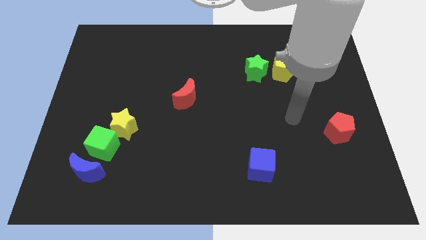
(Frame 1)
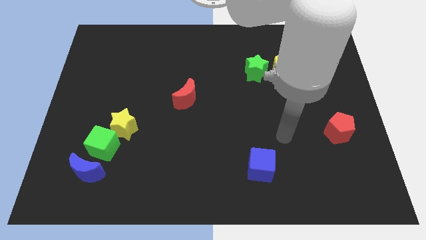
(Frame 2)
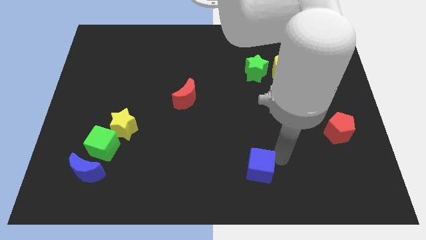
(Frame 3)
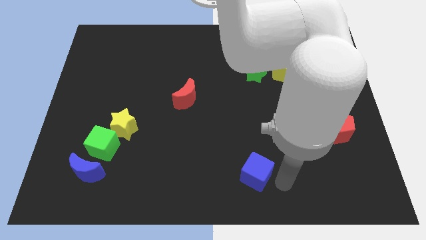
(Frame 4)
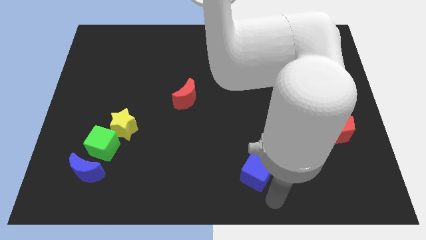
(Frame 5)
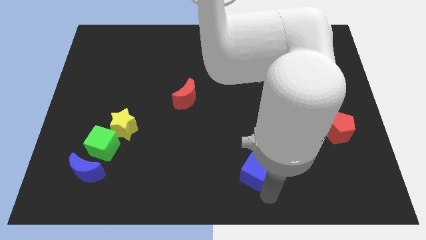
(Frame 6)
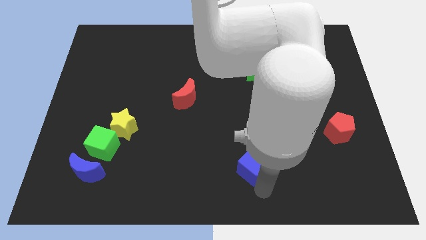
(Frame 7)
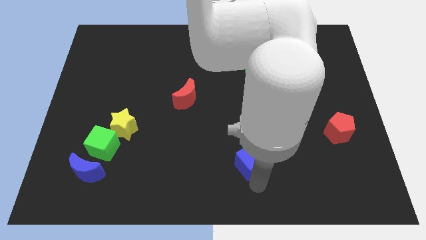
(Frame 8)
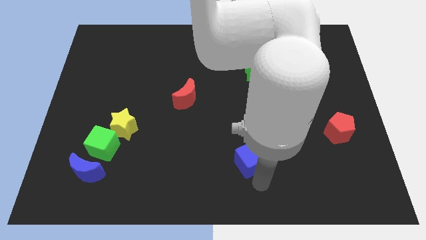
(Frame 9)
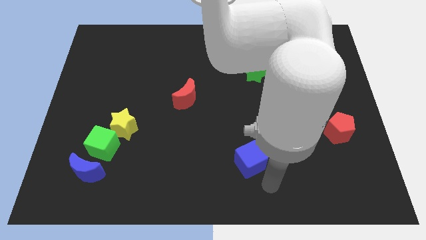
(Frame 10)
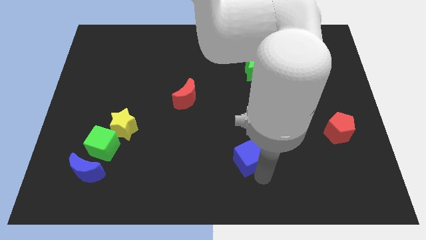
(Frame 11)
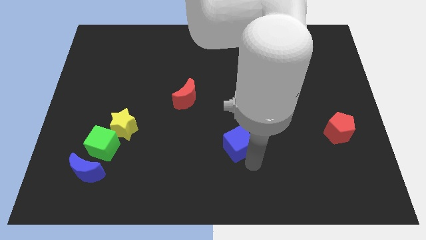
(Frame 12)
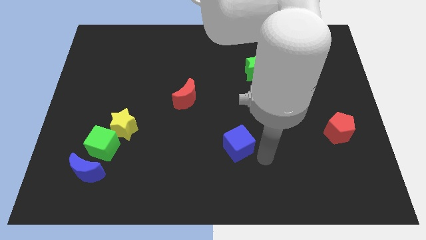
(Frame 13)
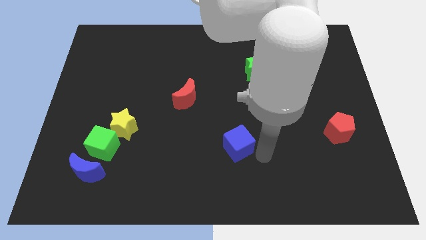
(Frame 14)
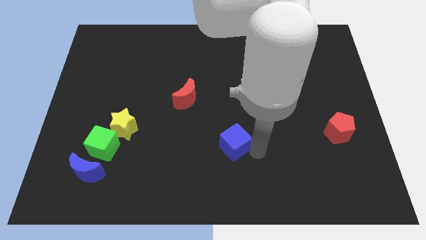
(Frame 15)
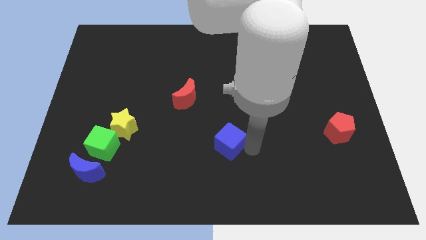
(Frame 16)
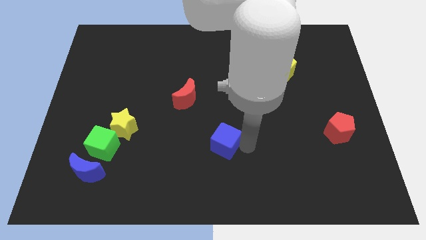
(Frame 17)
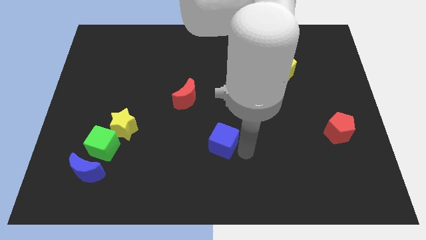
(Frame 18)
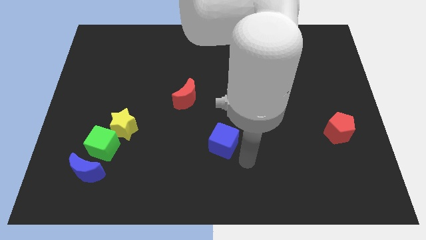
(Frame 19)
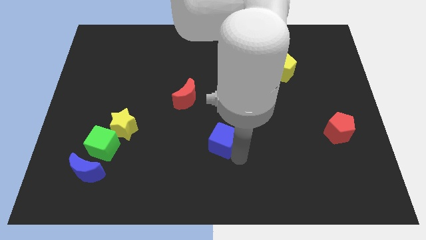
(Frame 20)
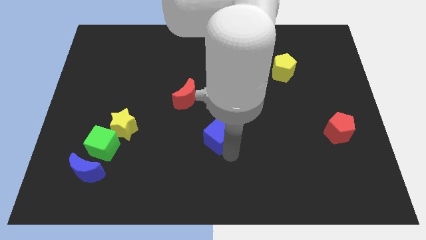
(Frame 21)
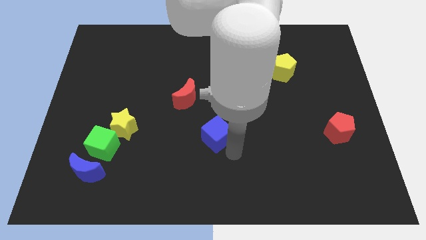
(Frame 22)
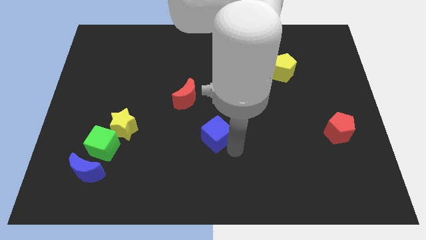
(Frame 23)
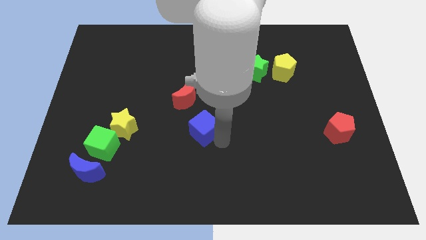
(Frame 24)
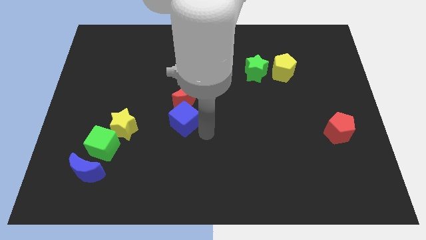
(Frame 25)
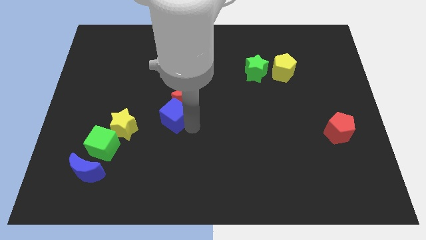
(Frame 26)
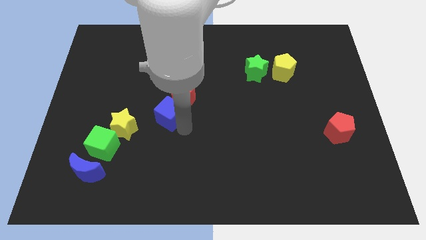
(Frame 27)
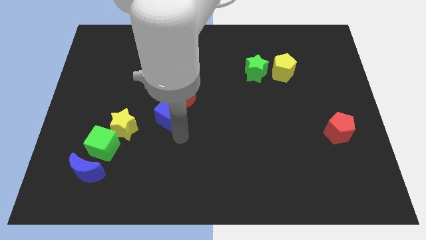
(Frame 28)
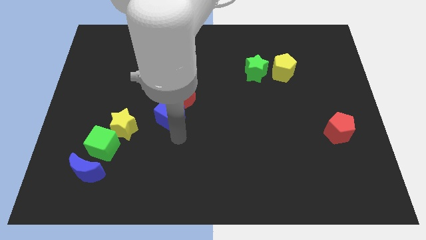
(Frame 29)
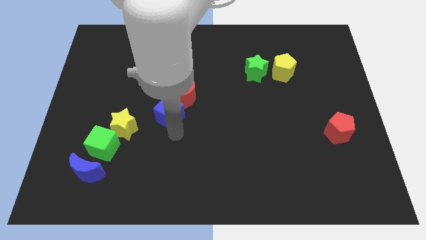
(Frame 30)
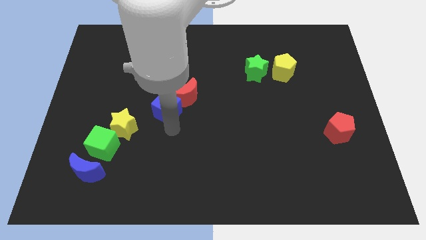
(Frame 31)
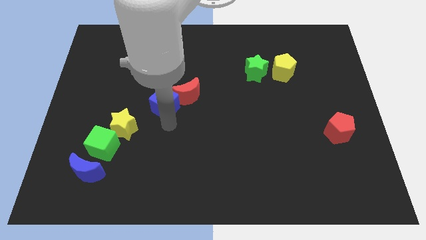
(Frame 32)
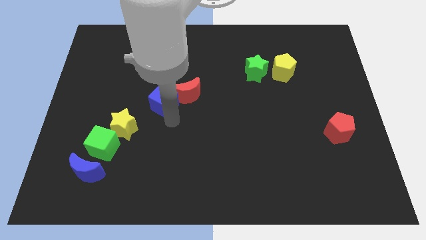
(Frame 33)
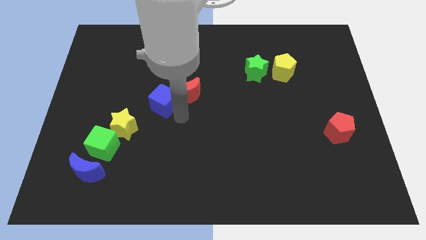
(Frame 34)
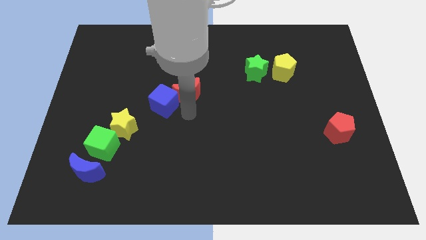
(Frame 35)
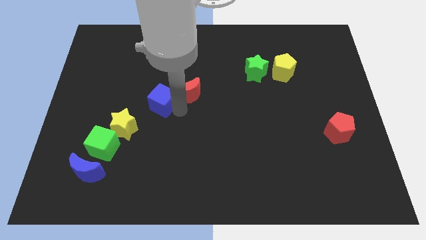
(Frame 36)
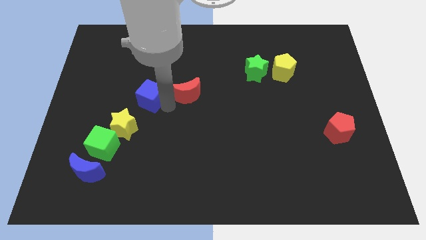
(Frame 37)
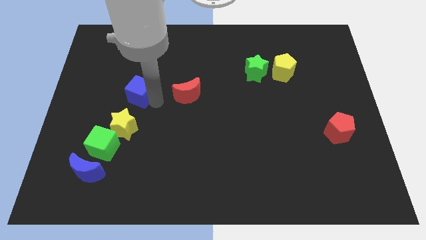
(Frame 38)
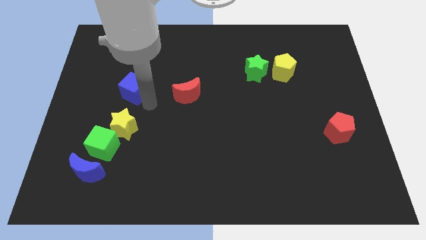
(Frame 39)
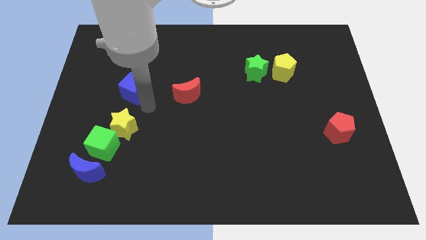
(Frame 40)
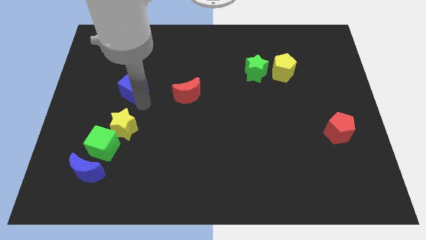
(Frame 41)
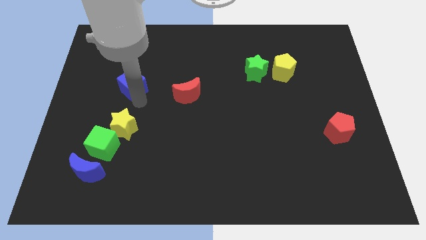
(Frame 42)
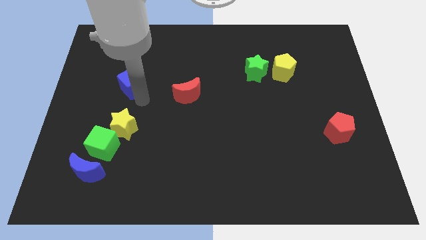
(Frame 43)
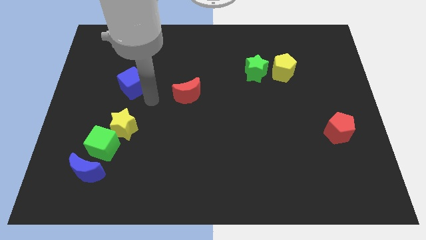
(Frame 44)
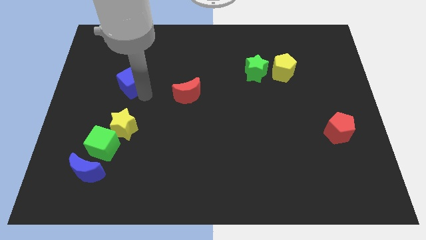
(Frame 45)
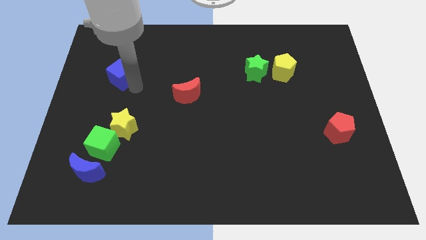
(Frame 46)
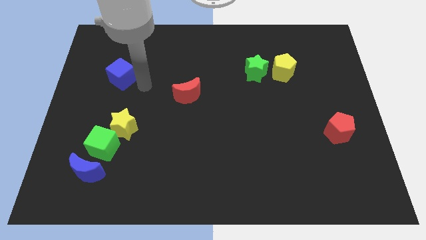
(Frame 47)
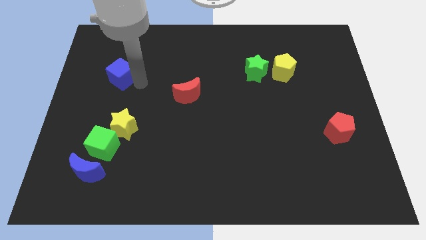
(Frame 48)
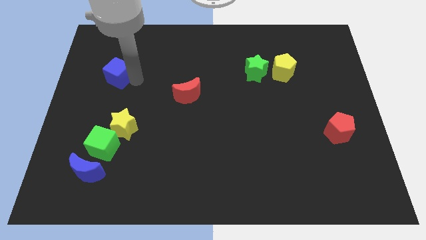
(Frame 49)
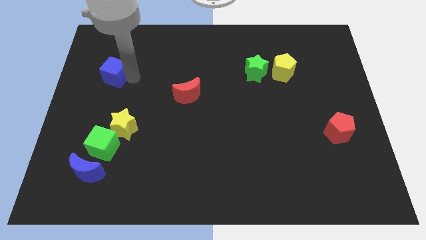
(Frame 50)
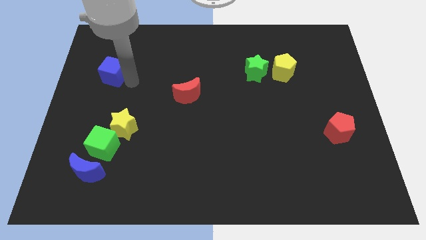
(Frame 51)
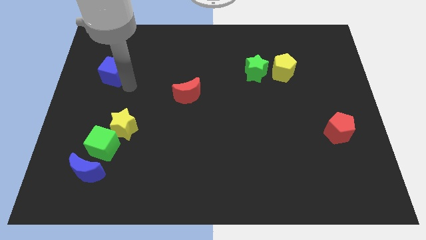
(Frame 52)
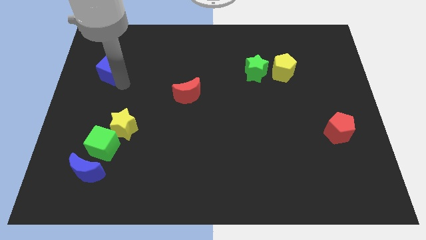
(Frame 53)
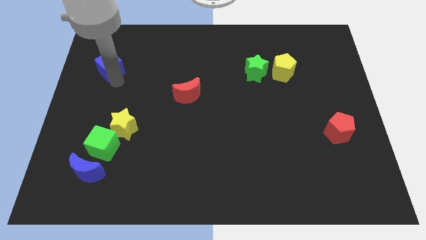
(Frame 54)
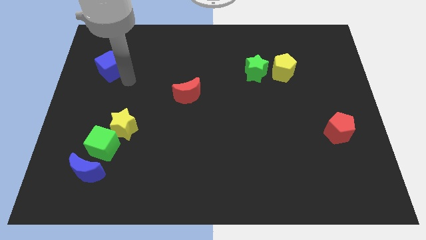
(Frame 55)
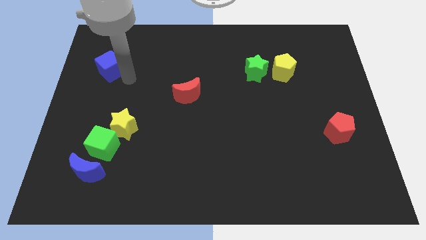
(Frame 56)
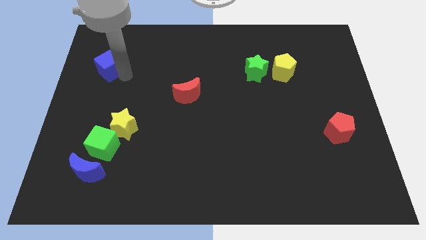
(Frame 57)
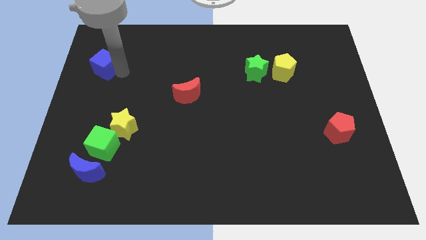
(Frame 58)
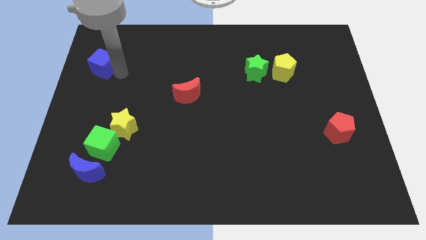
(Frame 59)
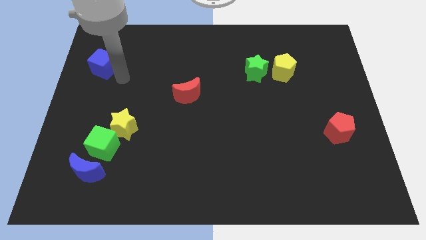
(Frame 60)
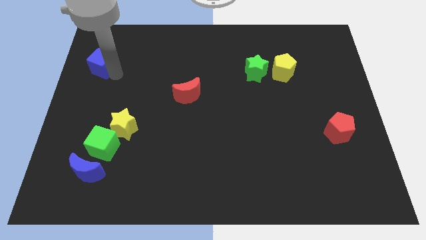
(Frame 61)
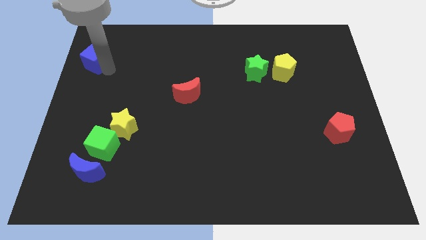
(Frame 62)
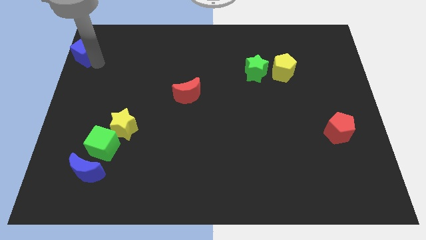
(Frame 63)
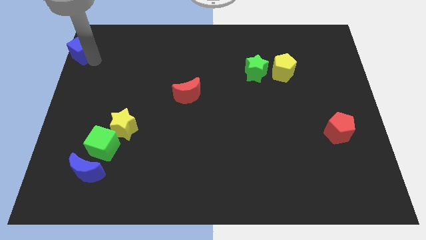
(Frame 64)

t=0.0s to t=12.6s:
slide the blue cube to the upper left corner
